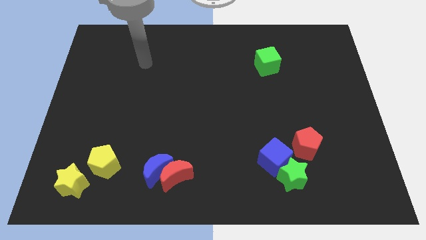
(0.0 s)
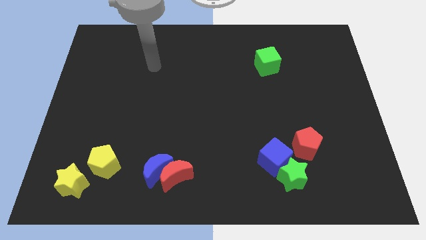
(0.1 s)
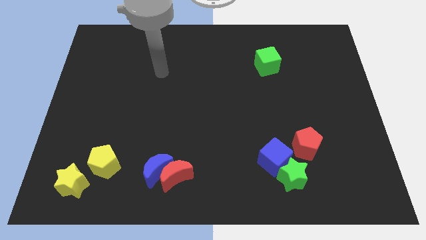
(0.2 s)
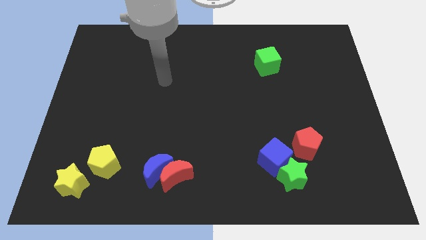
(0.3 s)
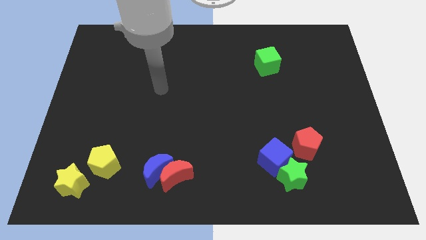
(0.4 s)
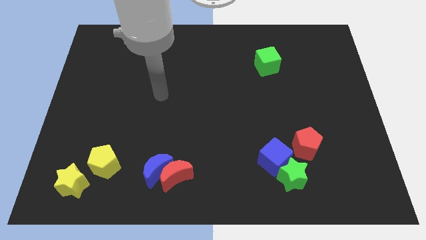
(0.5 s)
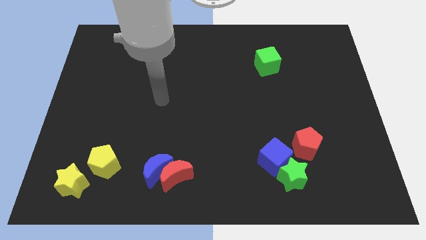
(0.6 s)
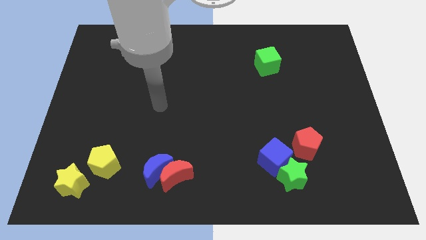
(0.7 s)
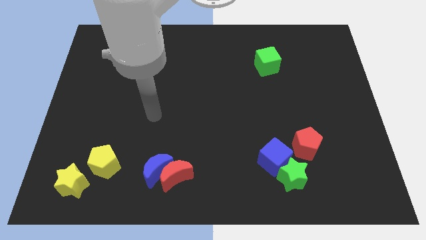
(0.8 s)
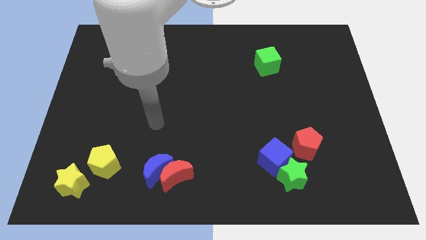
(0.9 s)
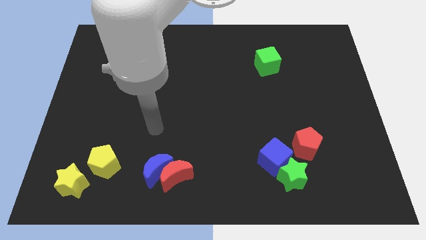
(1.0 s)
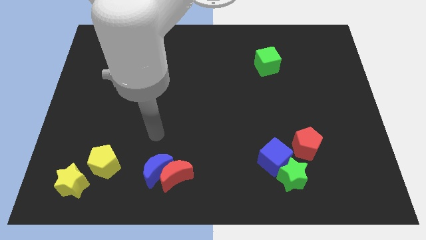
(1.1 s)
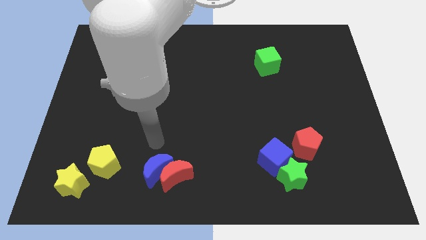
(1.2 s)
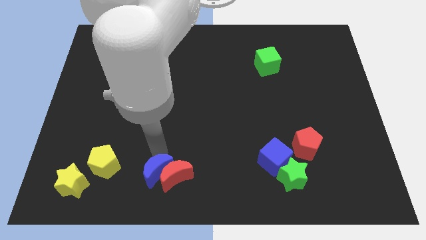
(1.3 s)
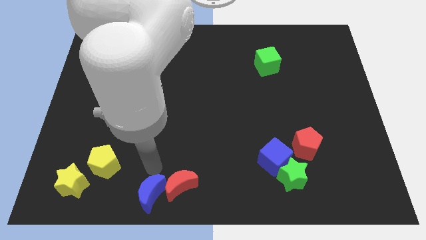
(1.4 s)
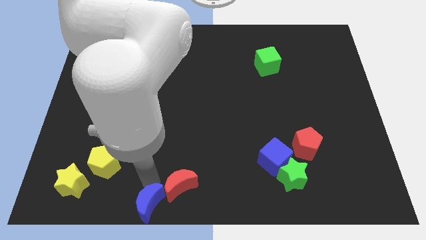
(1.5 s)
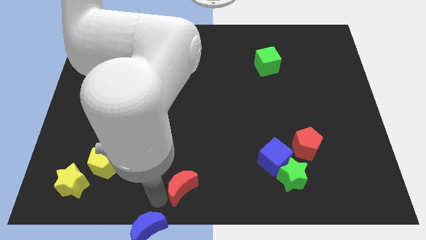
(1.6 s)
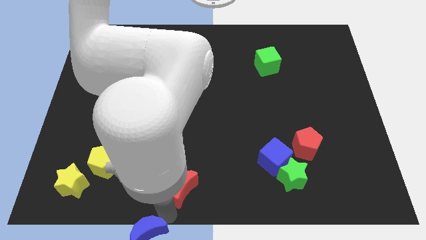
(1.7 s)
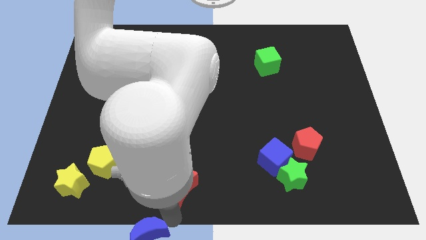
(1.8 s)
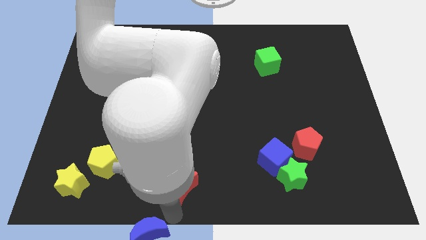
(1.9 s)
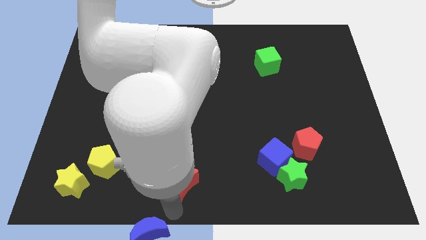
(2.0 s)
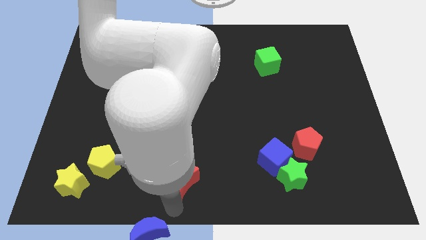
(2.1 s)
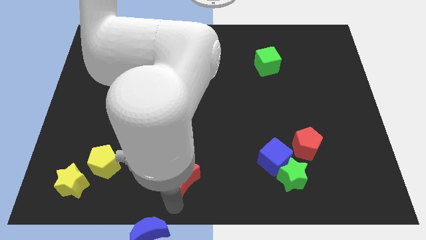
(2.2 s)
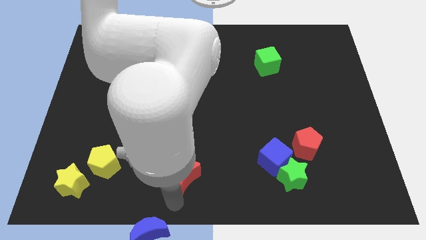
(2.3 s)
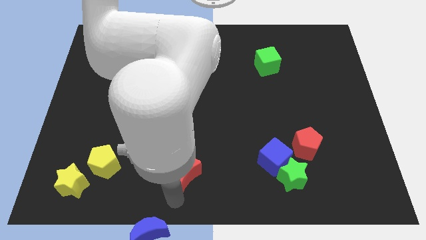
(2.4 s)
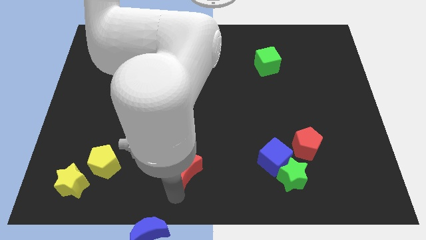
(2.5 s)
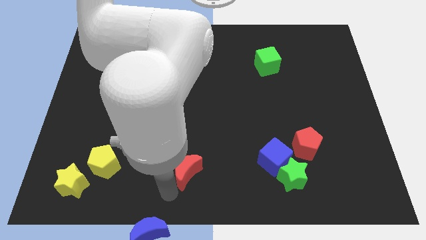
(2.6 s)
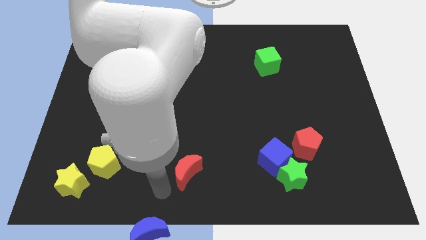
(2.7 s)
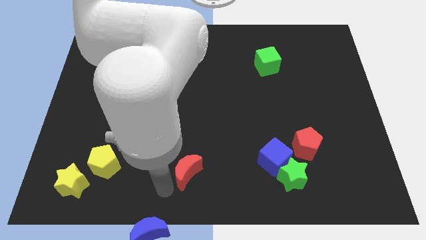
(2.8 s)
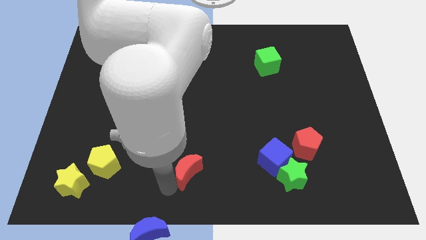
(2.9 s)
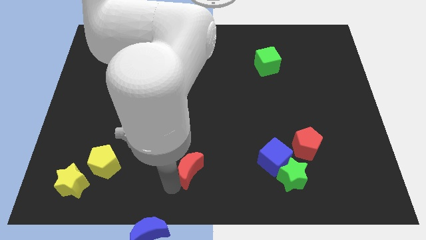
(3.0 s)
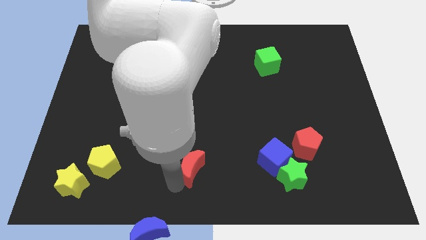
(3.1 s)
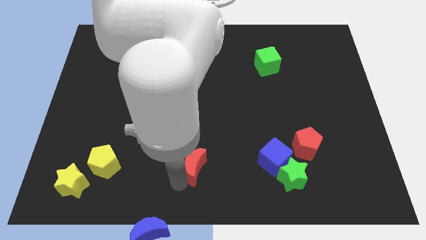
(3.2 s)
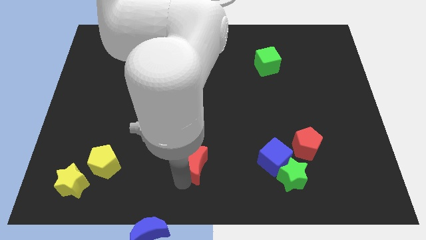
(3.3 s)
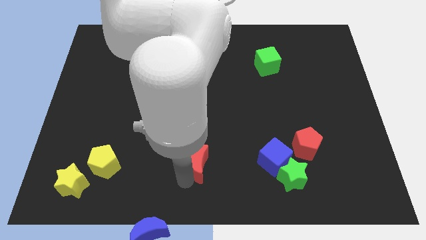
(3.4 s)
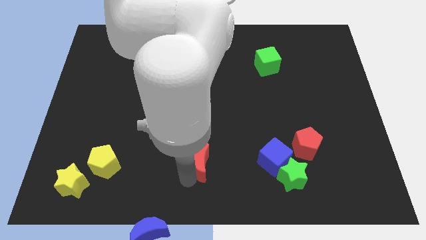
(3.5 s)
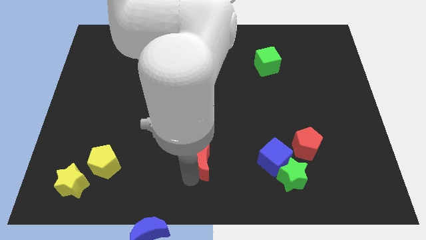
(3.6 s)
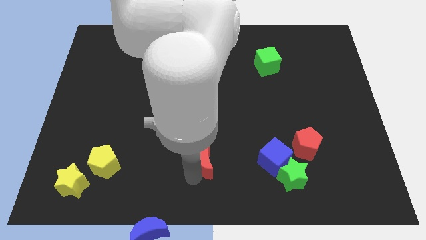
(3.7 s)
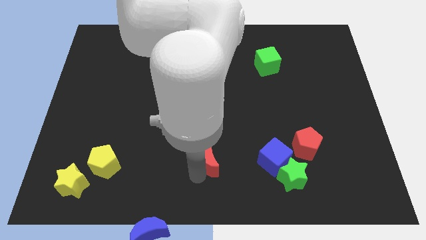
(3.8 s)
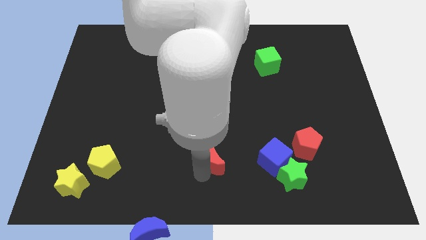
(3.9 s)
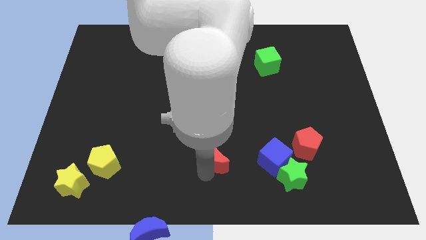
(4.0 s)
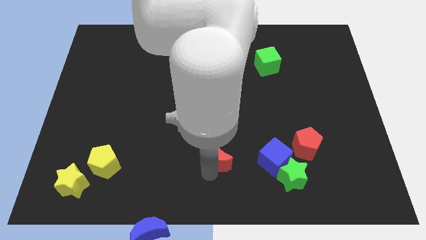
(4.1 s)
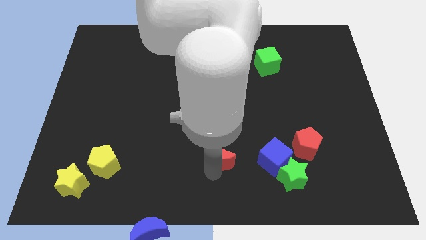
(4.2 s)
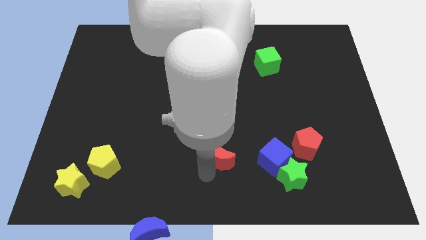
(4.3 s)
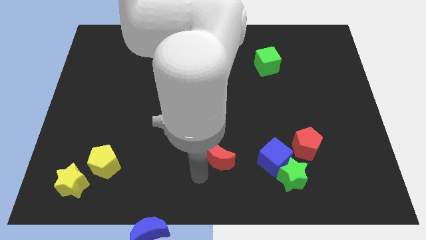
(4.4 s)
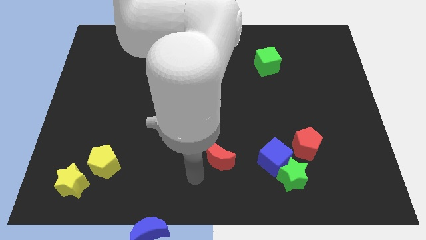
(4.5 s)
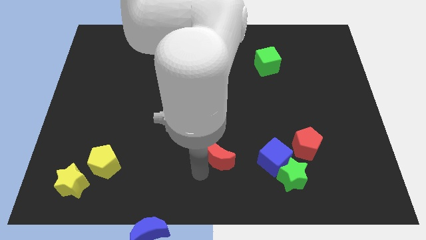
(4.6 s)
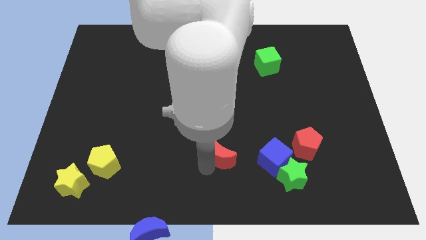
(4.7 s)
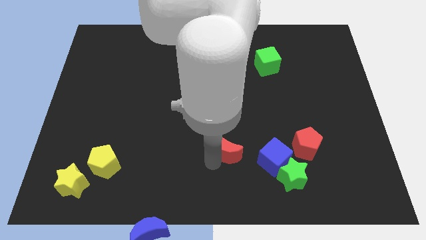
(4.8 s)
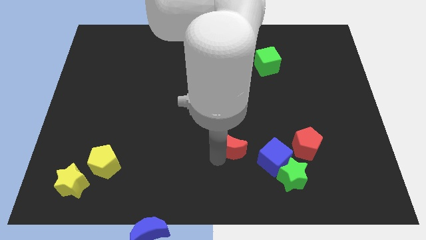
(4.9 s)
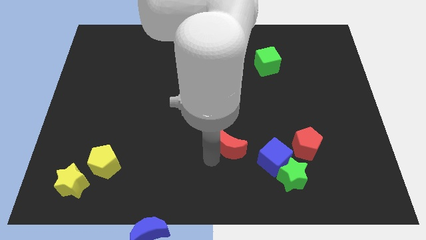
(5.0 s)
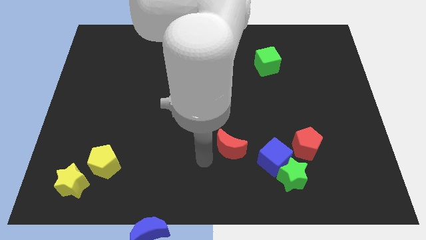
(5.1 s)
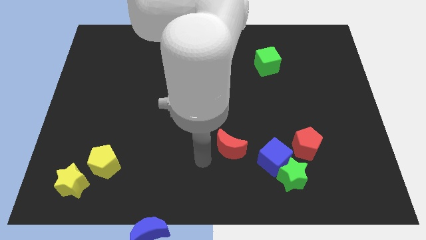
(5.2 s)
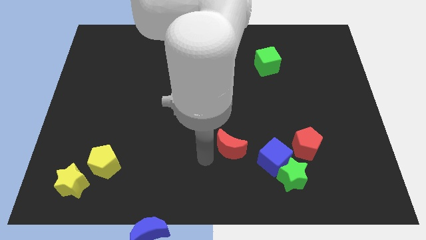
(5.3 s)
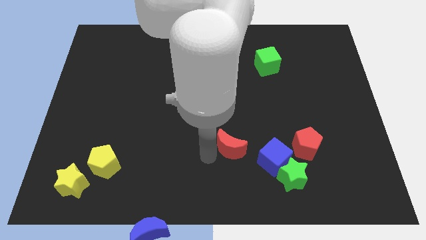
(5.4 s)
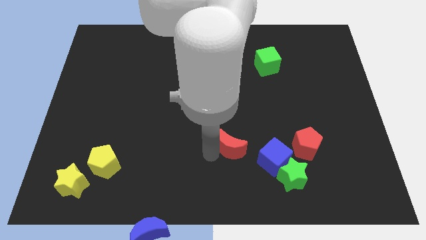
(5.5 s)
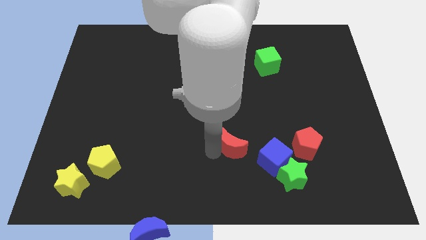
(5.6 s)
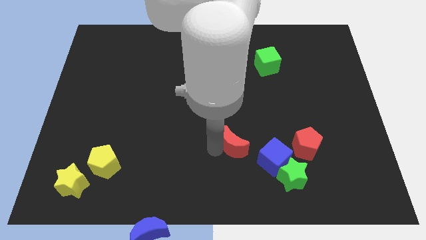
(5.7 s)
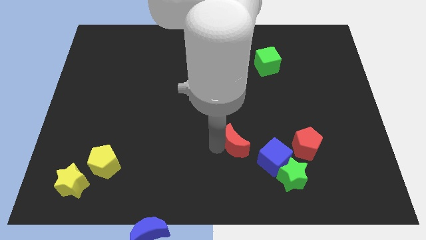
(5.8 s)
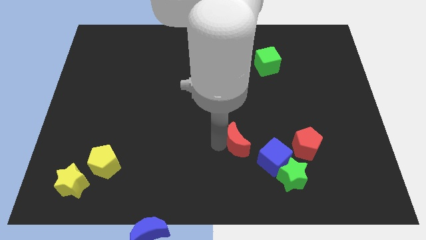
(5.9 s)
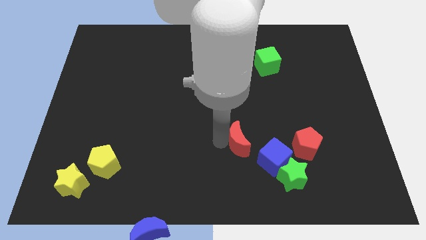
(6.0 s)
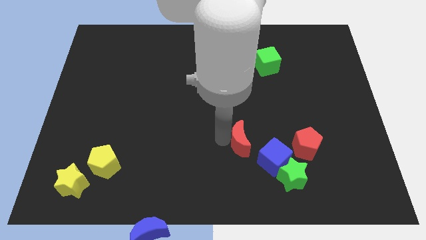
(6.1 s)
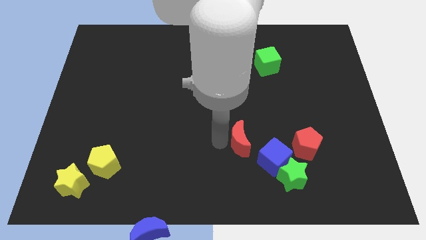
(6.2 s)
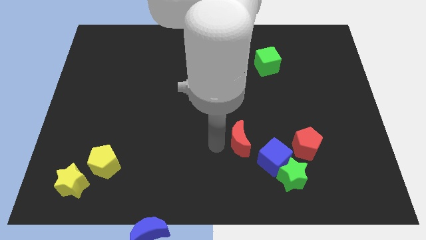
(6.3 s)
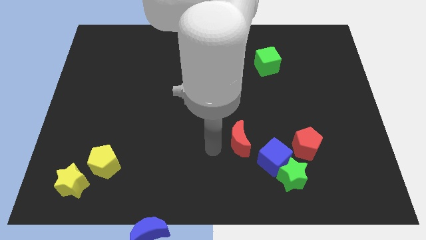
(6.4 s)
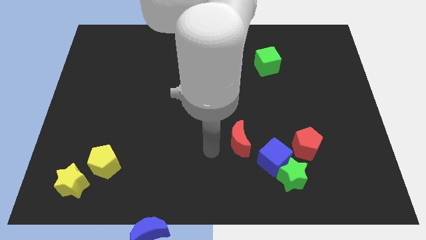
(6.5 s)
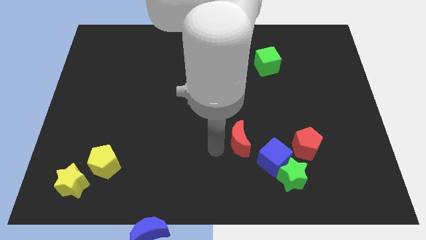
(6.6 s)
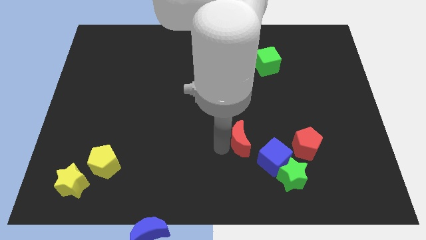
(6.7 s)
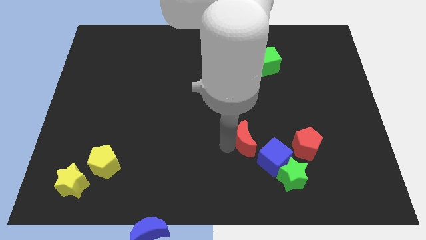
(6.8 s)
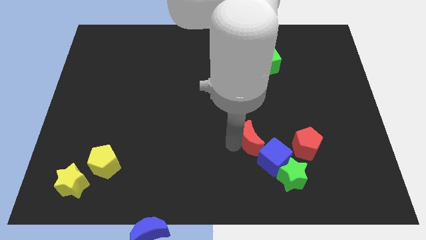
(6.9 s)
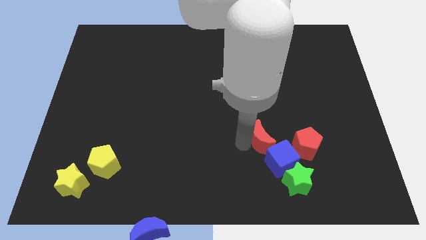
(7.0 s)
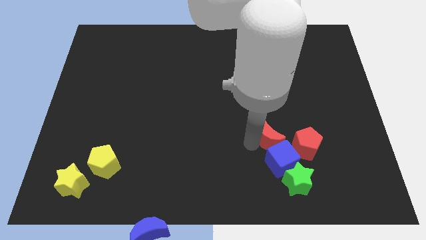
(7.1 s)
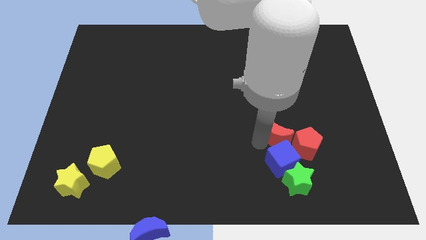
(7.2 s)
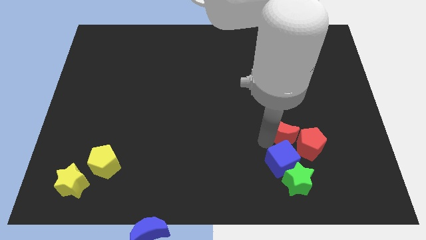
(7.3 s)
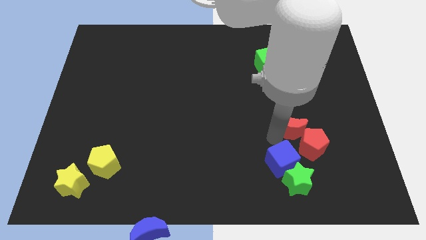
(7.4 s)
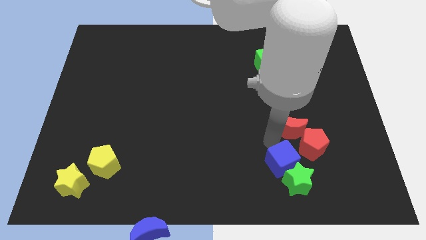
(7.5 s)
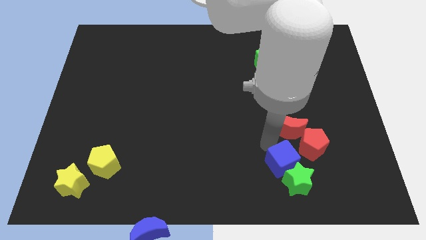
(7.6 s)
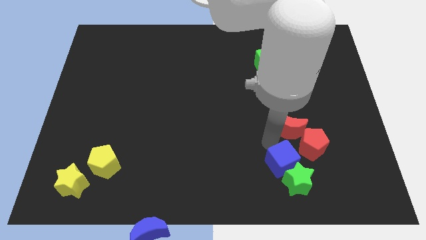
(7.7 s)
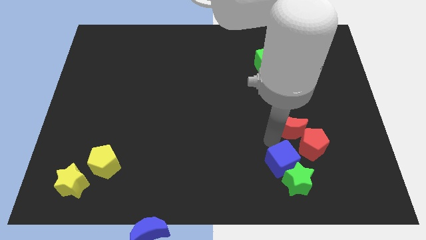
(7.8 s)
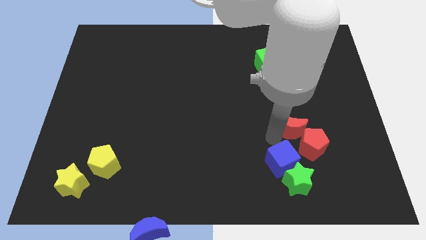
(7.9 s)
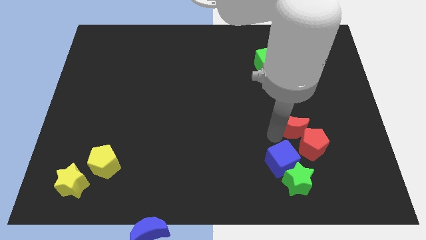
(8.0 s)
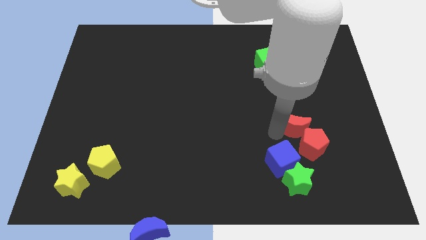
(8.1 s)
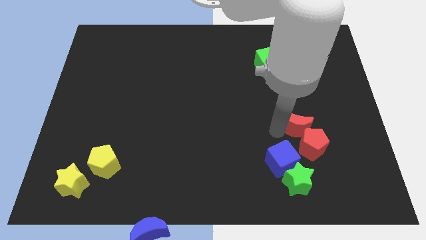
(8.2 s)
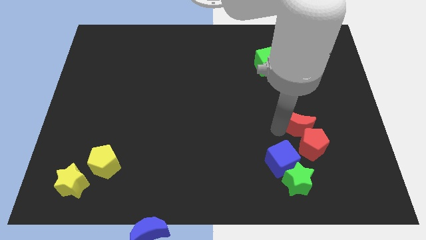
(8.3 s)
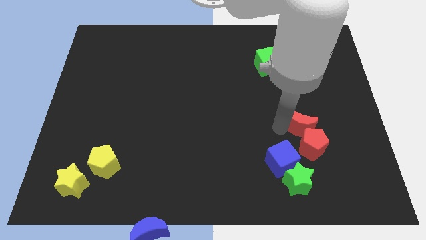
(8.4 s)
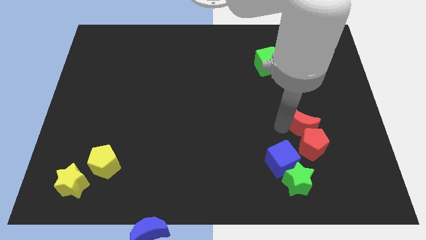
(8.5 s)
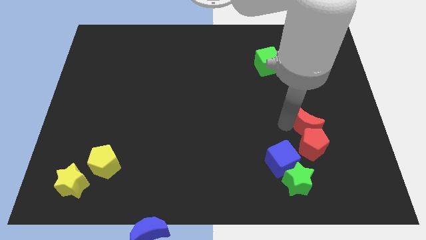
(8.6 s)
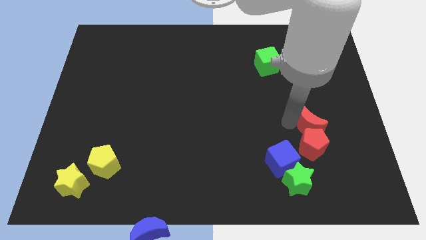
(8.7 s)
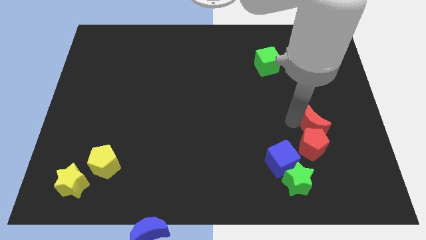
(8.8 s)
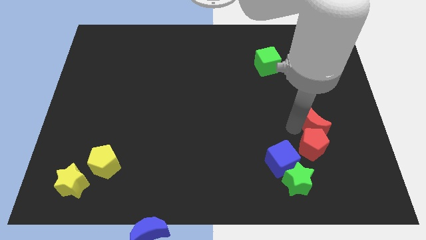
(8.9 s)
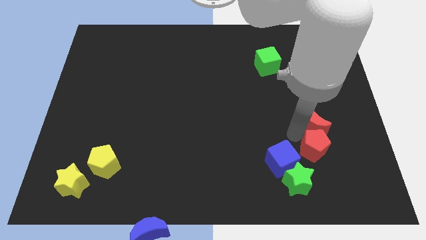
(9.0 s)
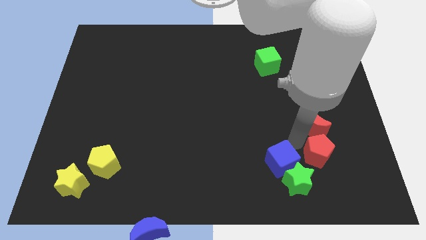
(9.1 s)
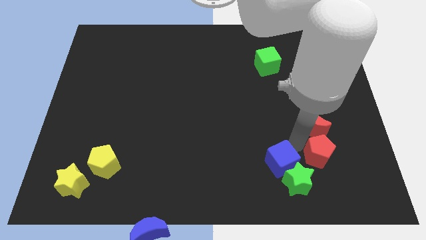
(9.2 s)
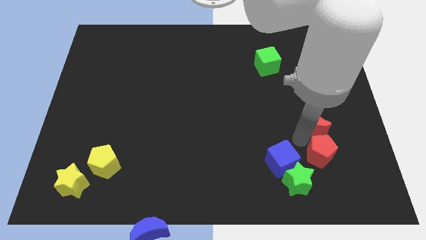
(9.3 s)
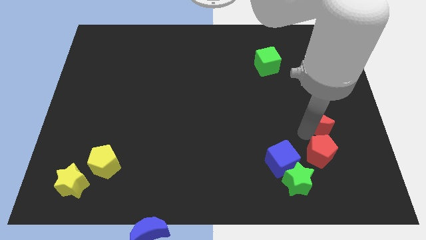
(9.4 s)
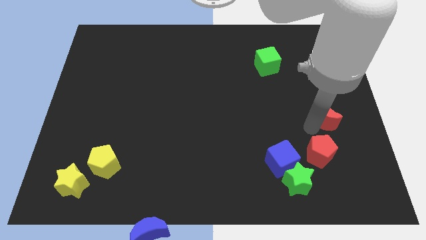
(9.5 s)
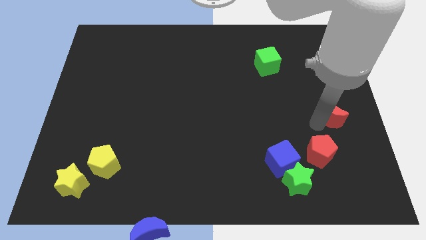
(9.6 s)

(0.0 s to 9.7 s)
slide the red moon to the center right
